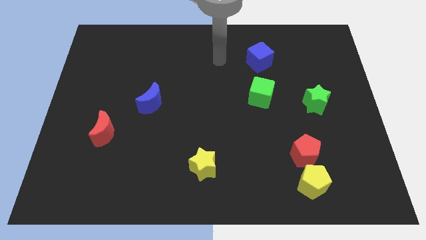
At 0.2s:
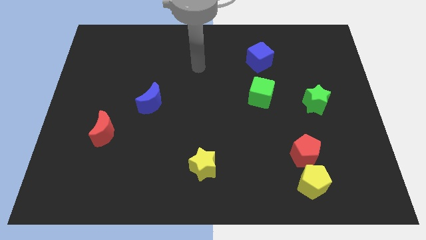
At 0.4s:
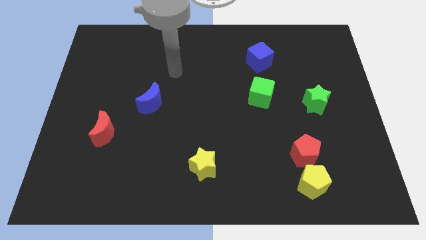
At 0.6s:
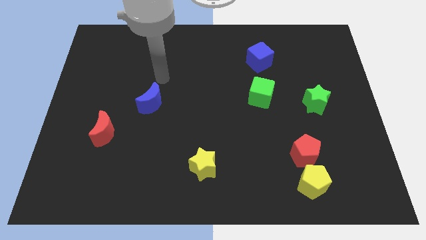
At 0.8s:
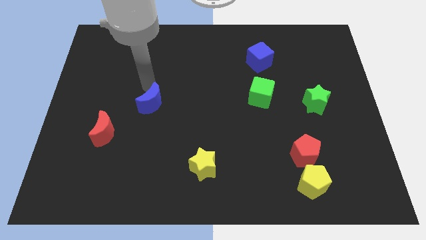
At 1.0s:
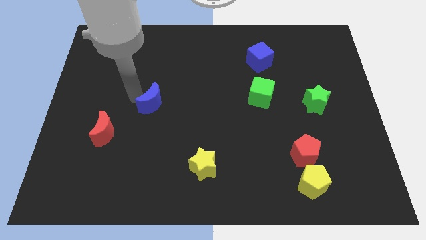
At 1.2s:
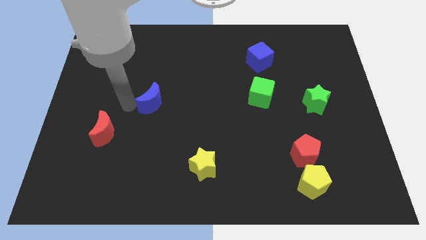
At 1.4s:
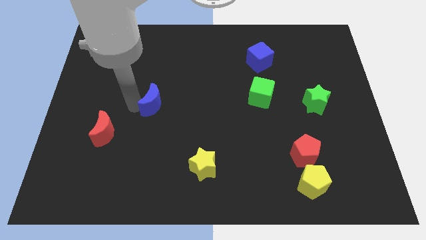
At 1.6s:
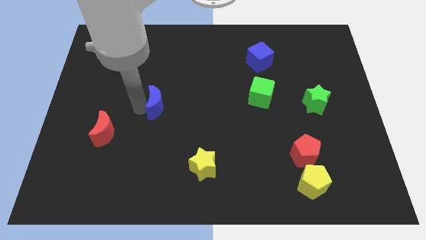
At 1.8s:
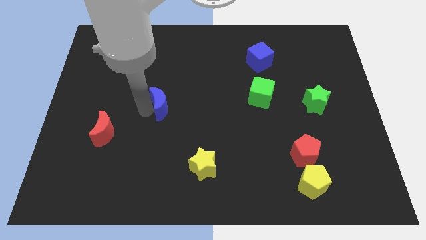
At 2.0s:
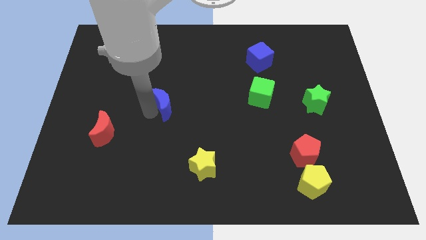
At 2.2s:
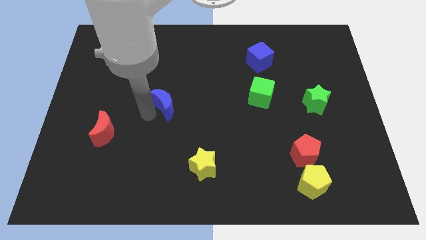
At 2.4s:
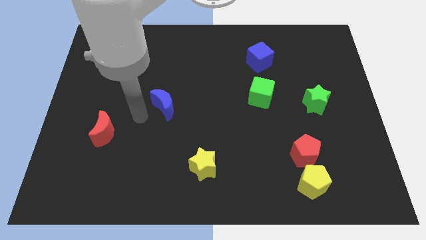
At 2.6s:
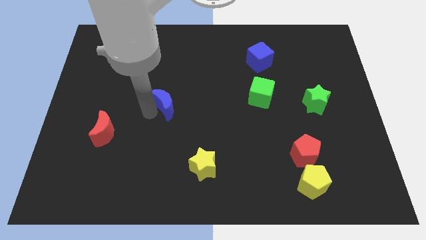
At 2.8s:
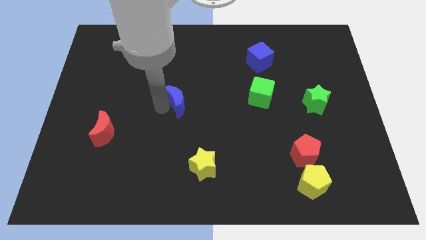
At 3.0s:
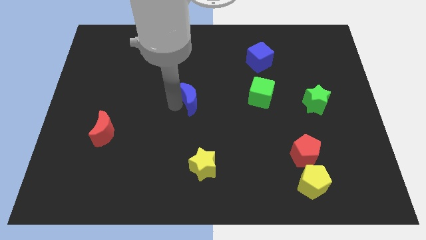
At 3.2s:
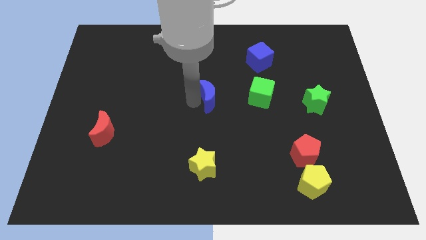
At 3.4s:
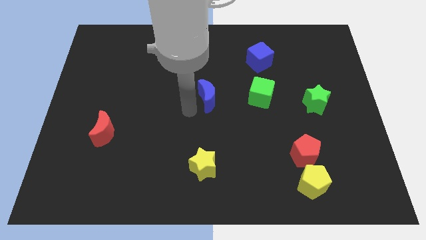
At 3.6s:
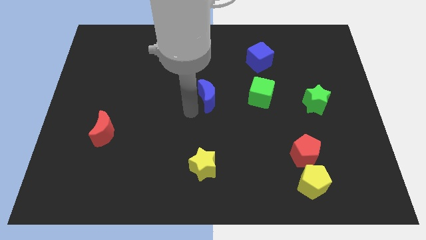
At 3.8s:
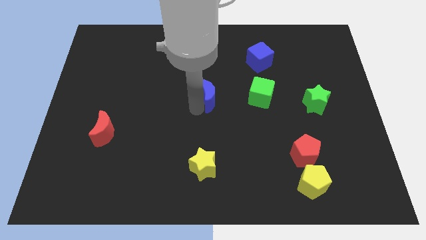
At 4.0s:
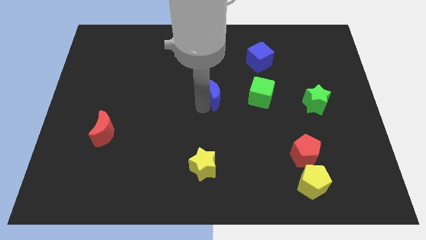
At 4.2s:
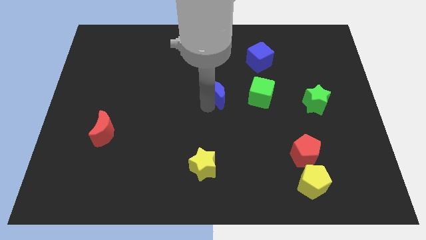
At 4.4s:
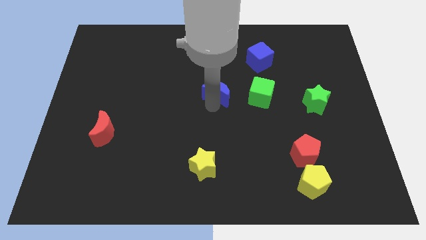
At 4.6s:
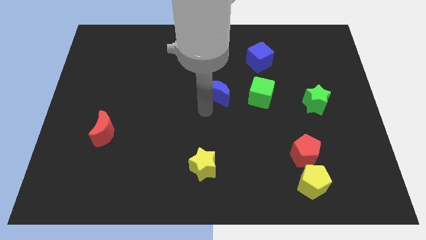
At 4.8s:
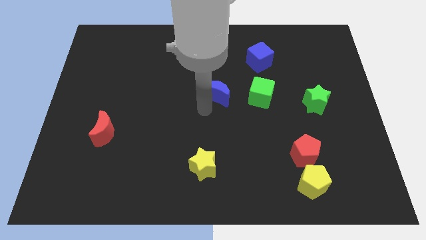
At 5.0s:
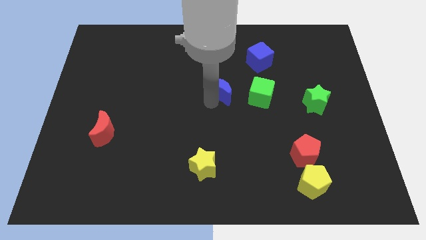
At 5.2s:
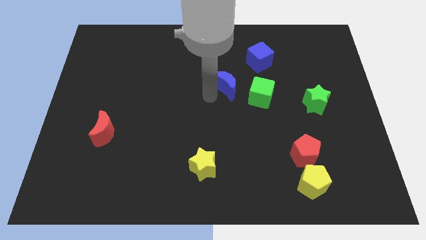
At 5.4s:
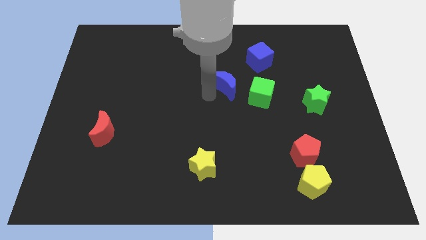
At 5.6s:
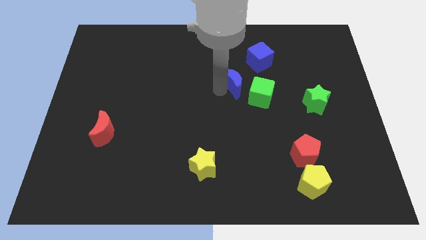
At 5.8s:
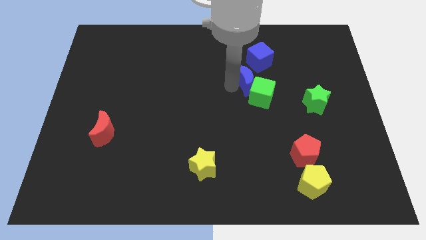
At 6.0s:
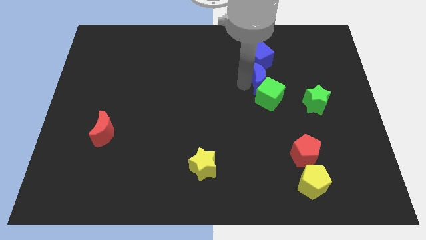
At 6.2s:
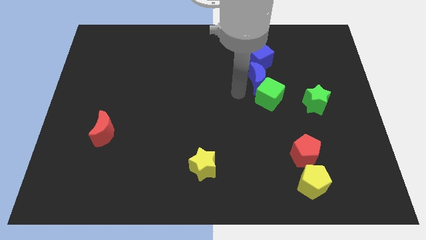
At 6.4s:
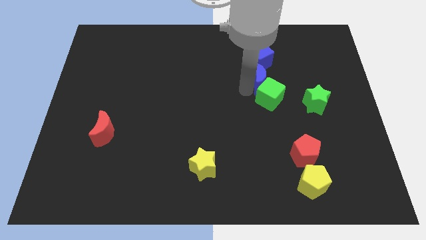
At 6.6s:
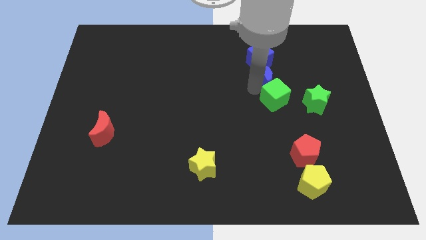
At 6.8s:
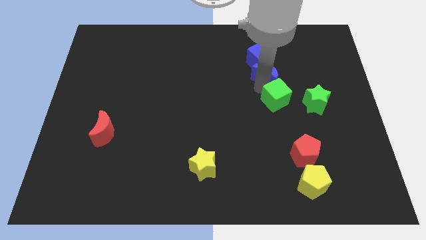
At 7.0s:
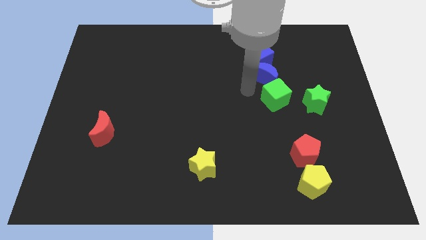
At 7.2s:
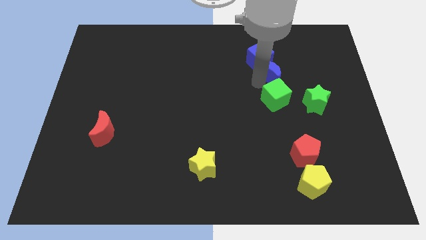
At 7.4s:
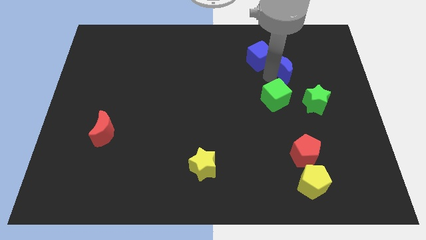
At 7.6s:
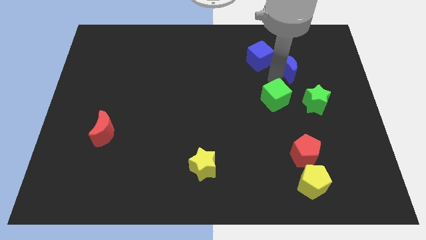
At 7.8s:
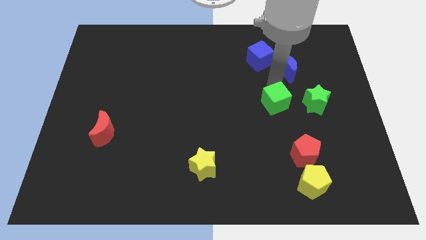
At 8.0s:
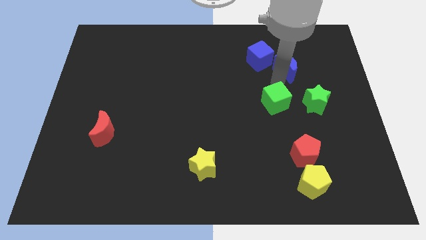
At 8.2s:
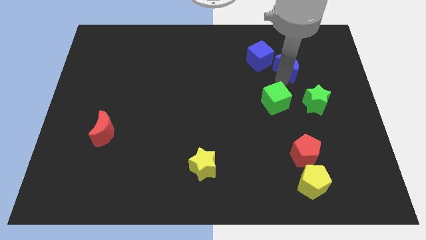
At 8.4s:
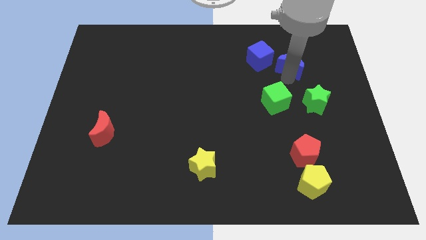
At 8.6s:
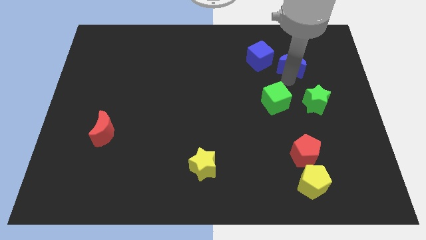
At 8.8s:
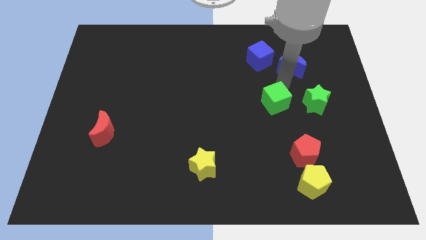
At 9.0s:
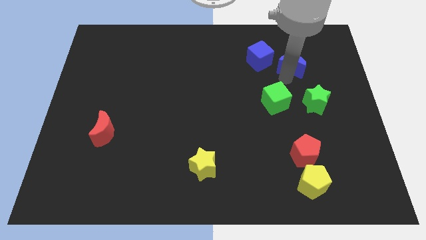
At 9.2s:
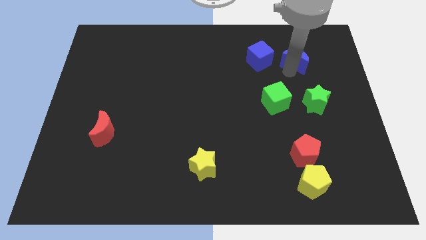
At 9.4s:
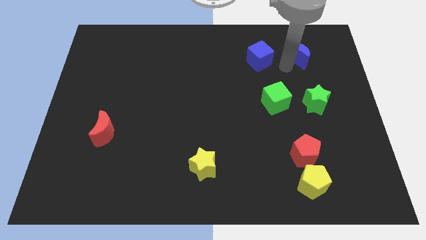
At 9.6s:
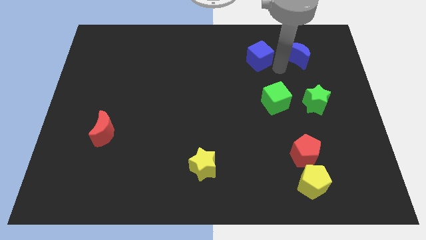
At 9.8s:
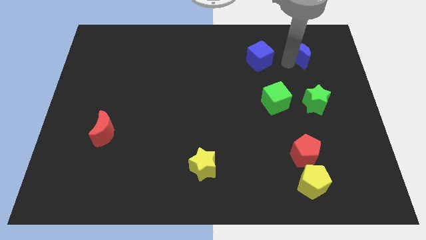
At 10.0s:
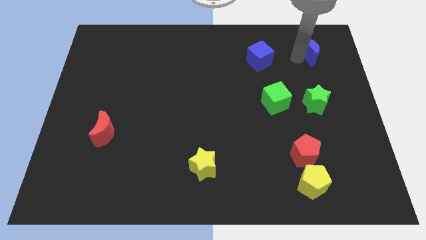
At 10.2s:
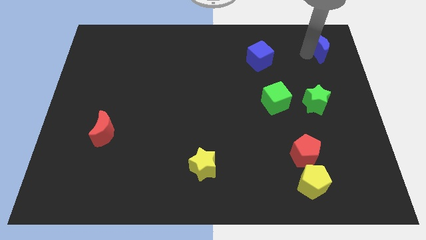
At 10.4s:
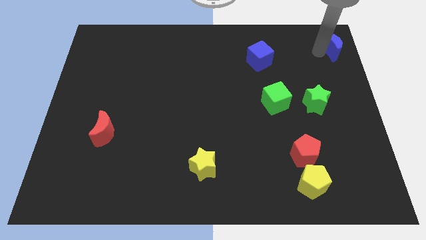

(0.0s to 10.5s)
slide the blue moon to the top right corner

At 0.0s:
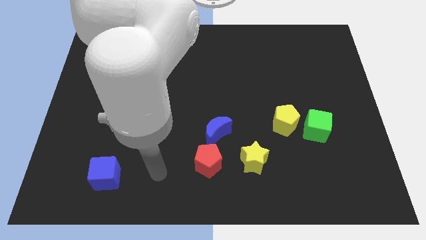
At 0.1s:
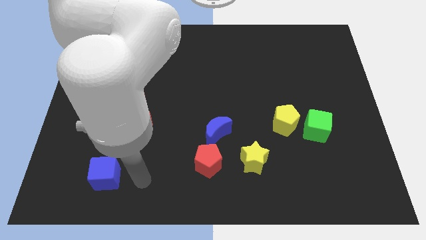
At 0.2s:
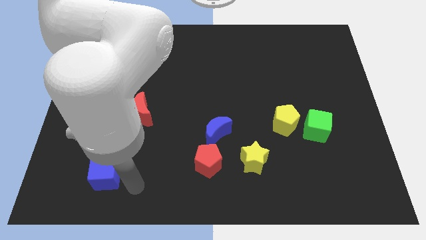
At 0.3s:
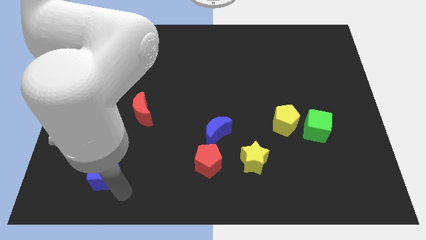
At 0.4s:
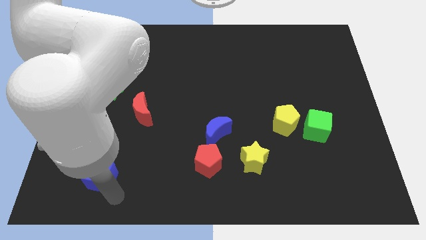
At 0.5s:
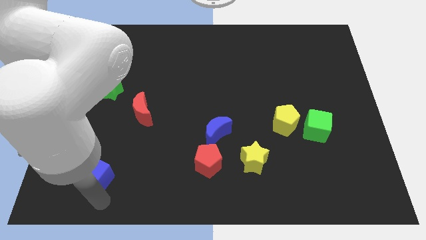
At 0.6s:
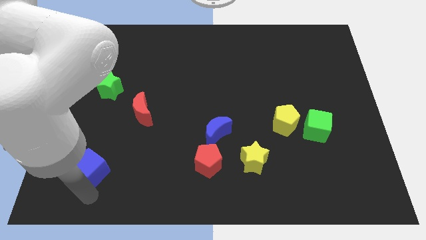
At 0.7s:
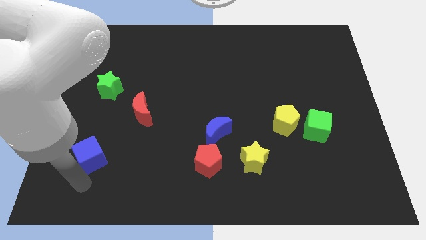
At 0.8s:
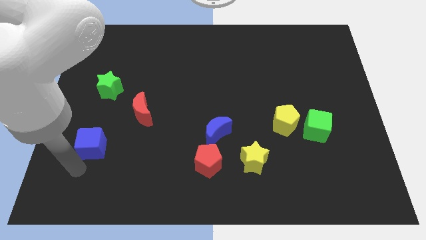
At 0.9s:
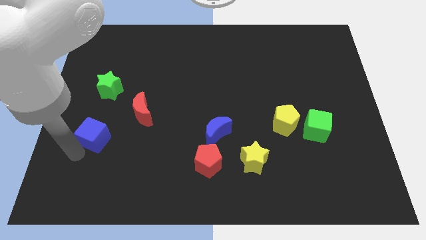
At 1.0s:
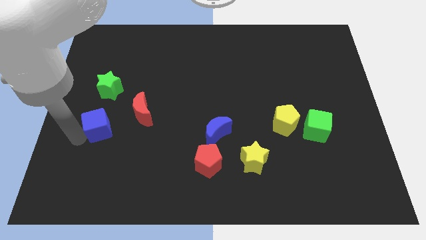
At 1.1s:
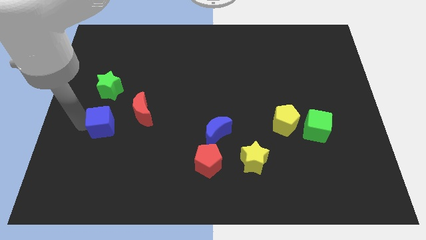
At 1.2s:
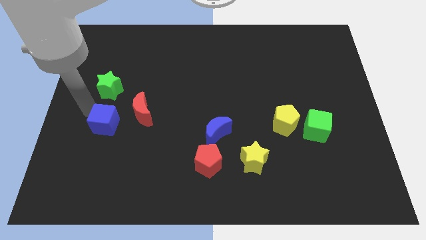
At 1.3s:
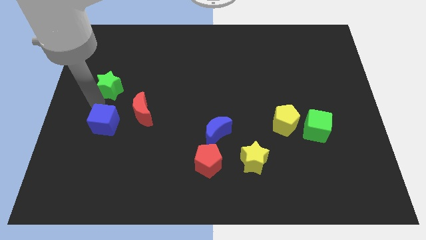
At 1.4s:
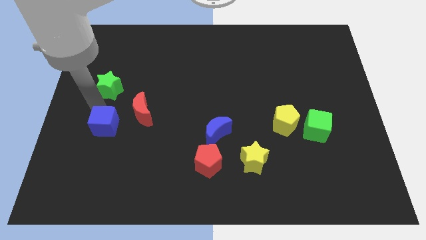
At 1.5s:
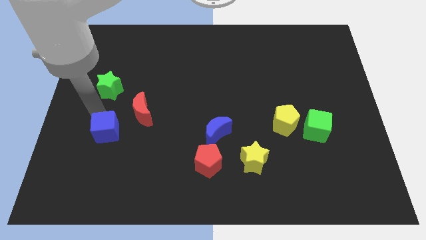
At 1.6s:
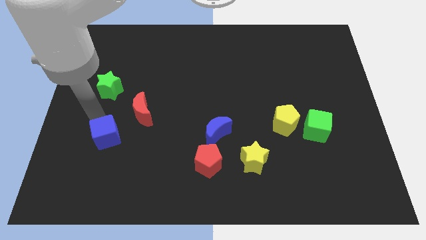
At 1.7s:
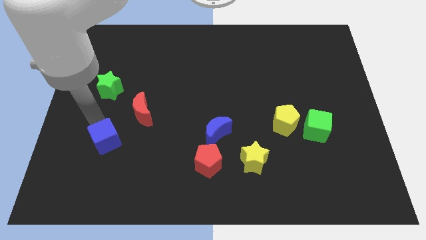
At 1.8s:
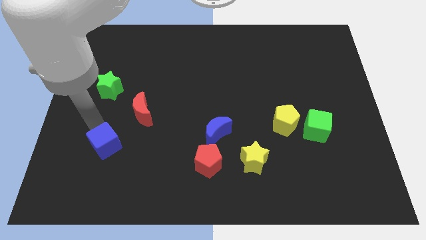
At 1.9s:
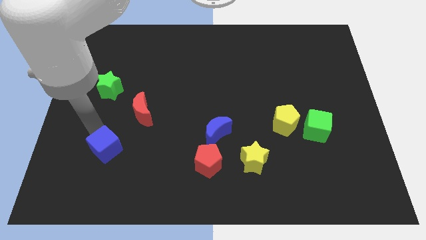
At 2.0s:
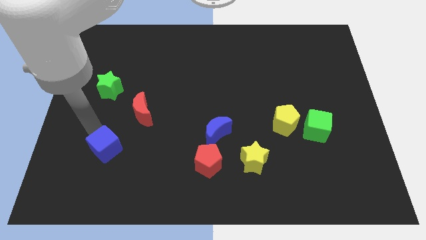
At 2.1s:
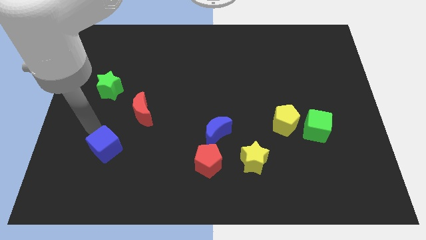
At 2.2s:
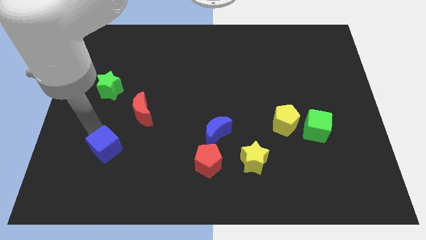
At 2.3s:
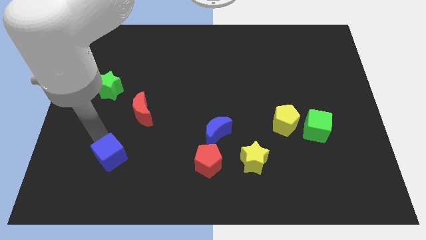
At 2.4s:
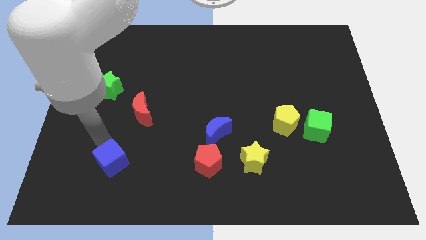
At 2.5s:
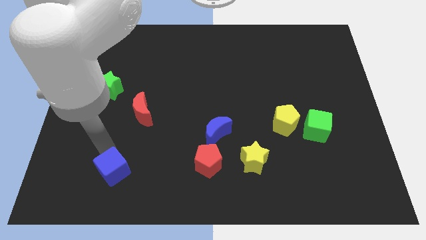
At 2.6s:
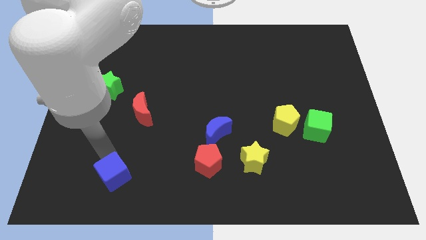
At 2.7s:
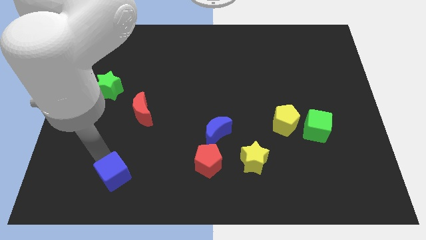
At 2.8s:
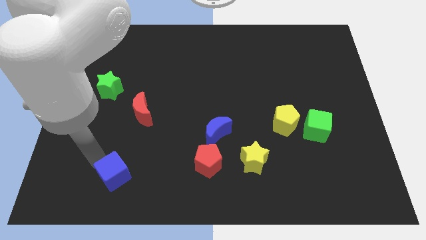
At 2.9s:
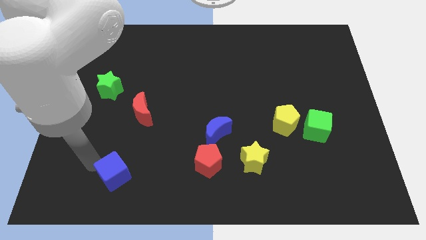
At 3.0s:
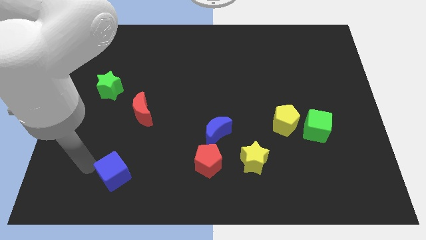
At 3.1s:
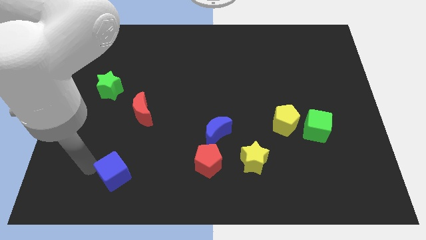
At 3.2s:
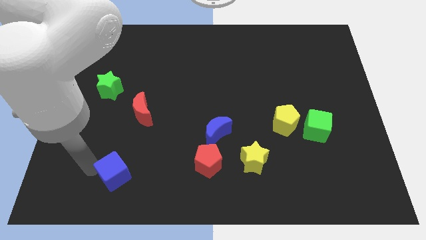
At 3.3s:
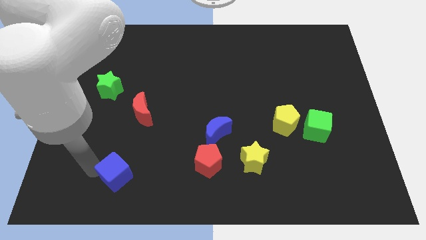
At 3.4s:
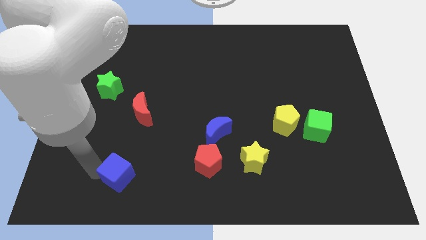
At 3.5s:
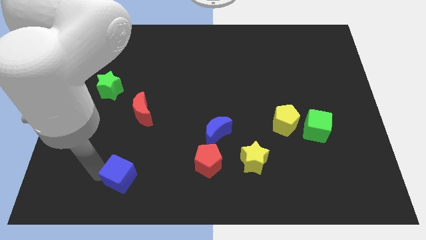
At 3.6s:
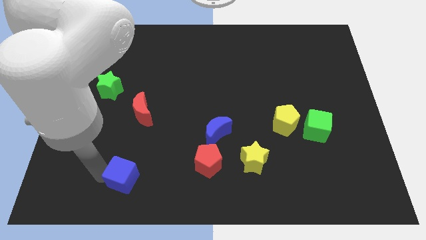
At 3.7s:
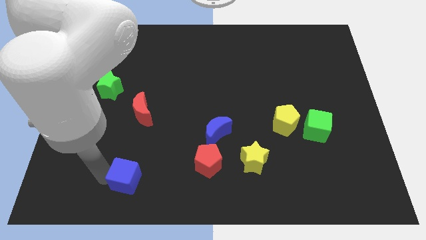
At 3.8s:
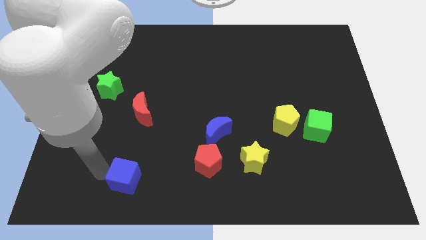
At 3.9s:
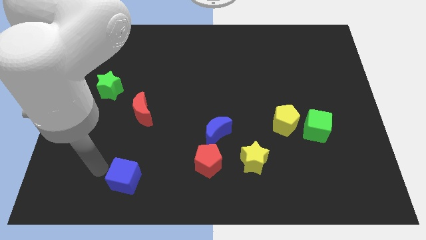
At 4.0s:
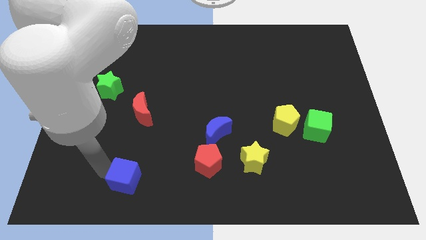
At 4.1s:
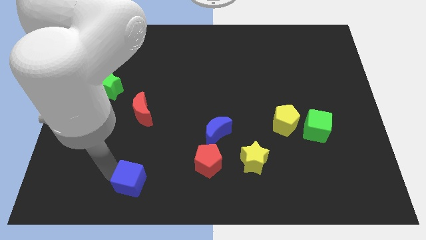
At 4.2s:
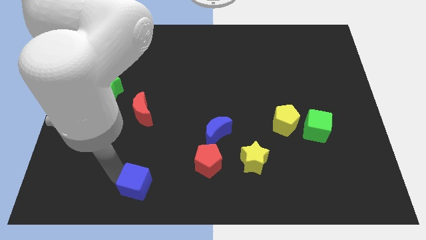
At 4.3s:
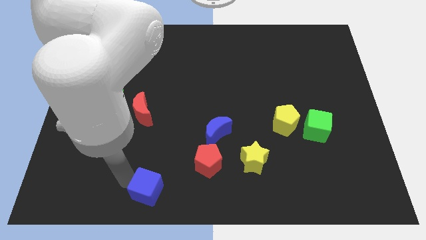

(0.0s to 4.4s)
put the blue cube to the bottom side
